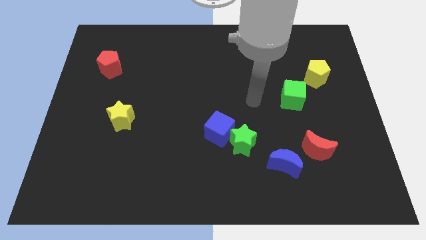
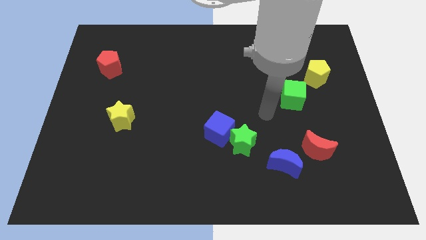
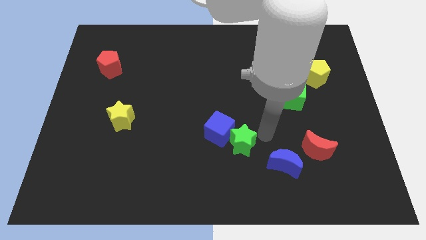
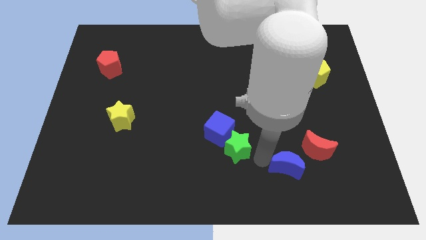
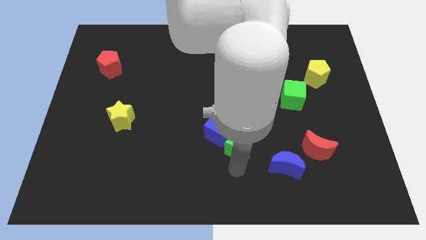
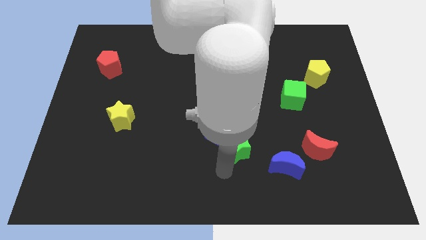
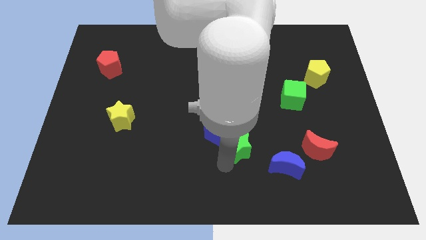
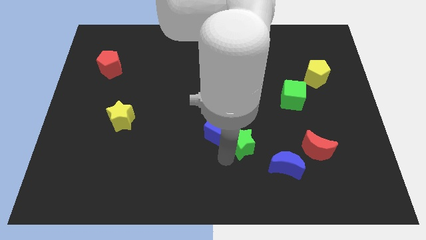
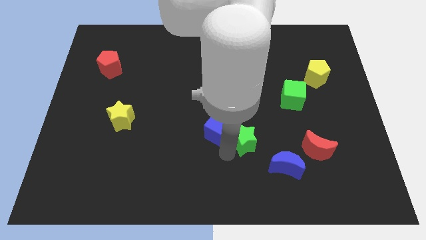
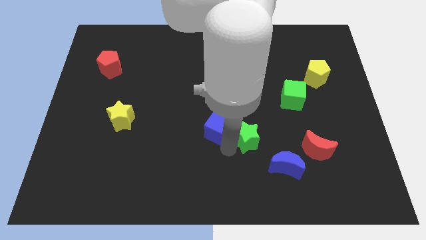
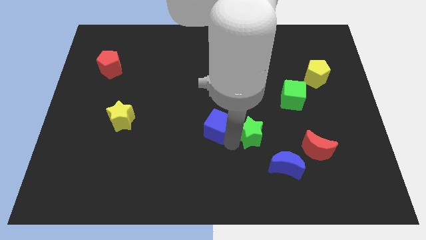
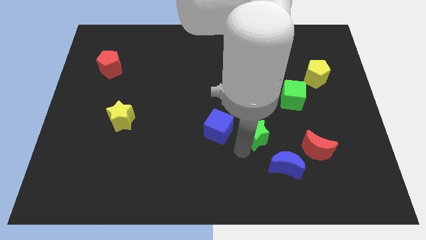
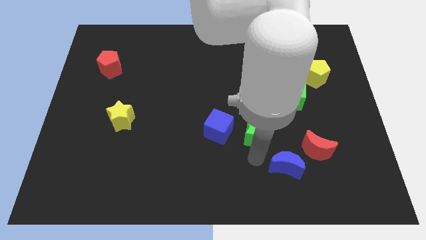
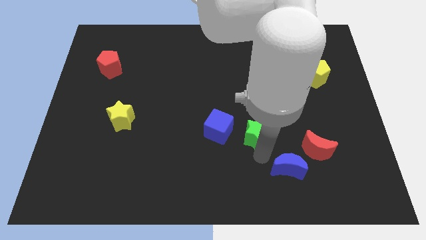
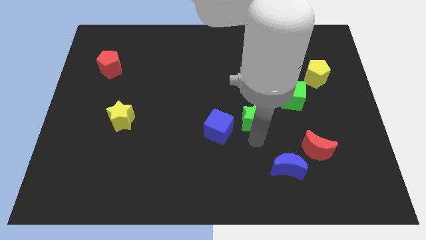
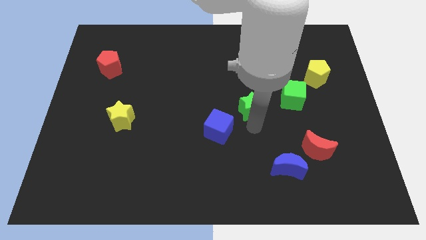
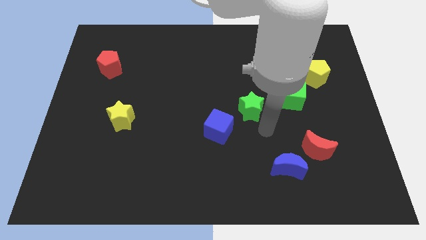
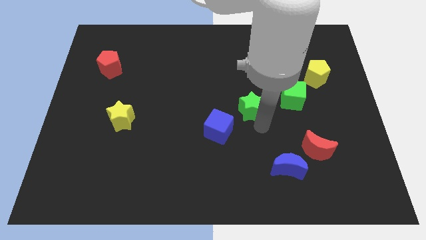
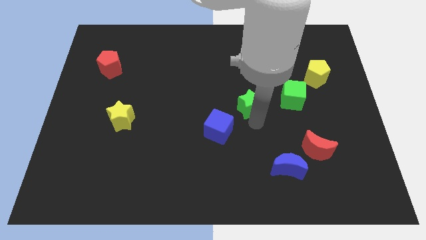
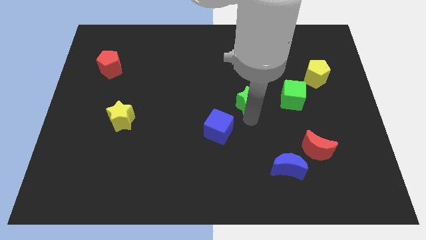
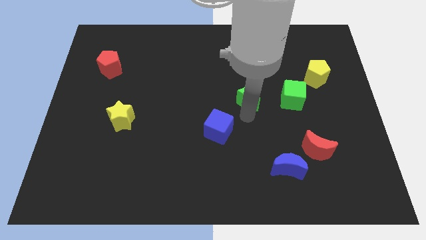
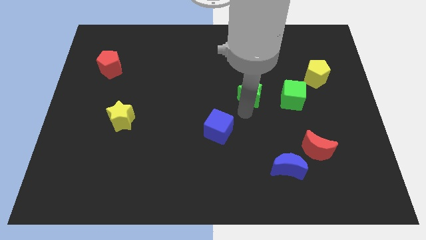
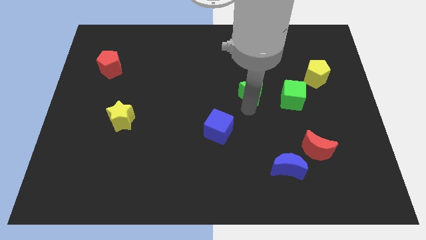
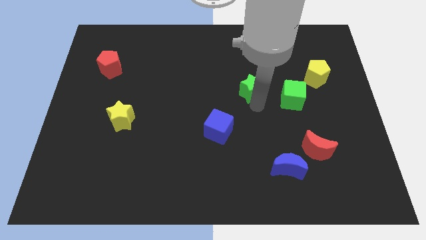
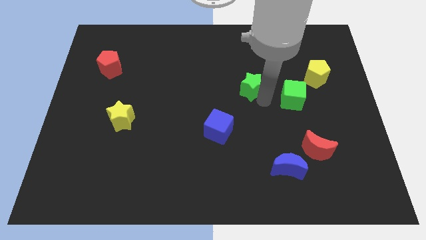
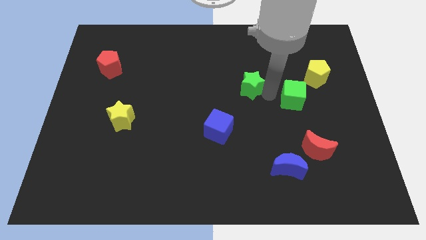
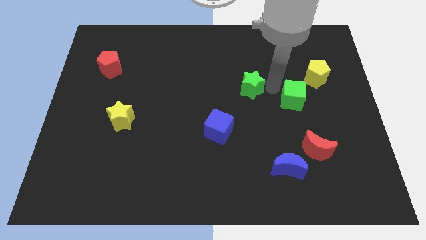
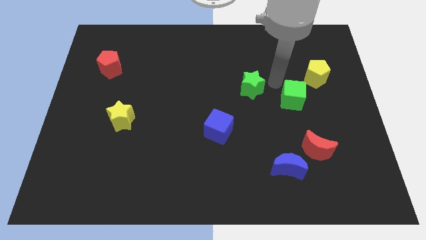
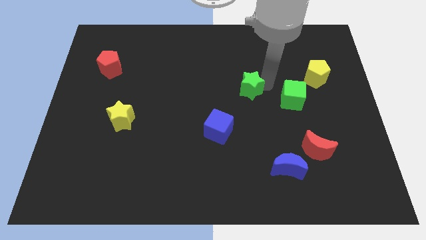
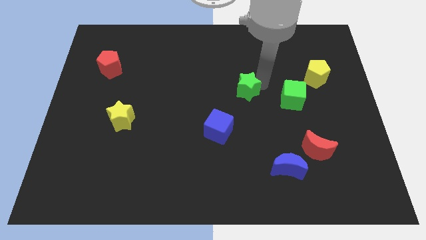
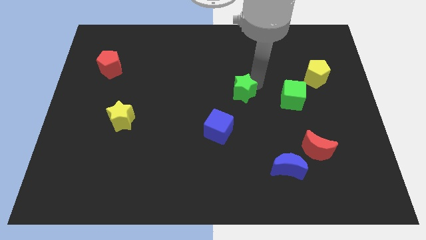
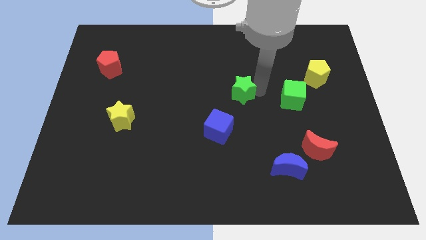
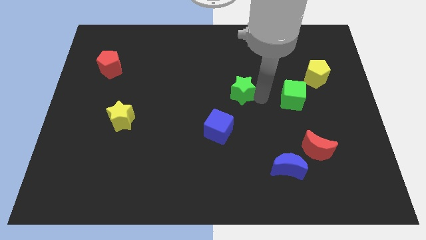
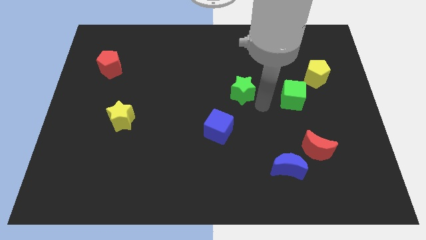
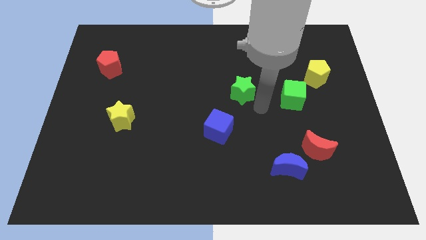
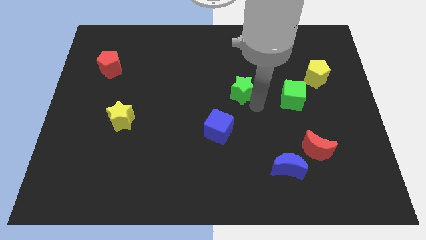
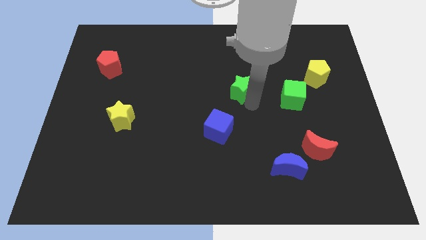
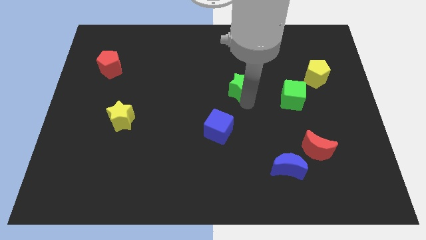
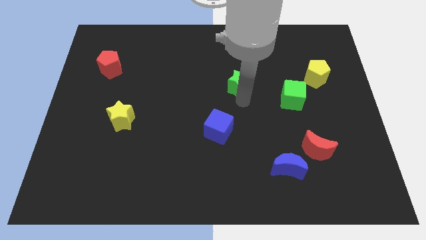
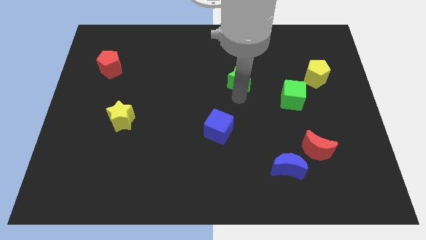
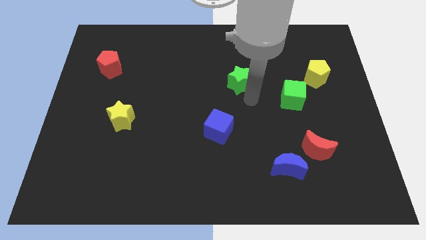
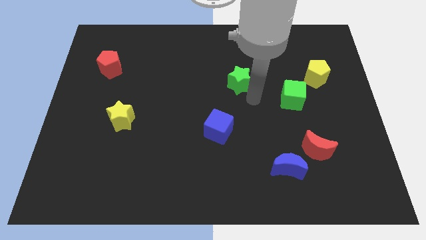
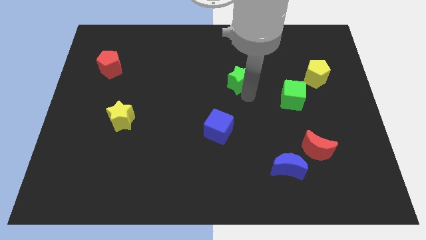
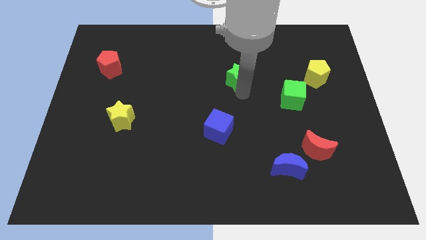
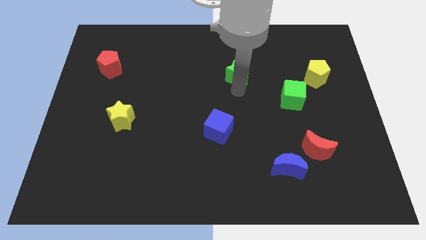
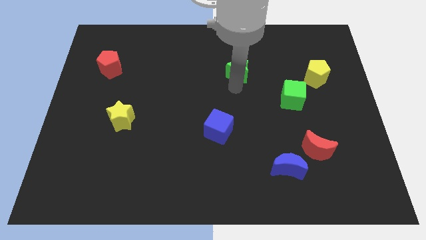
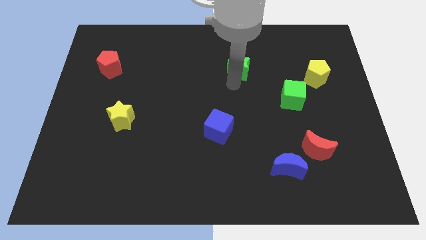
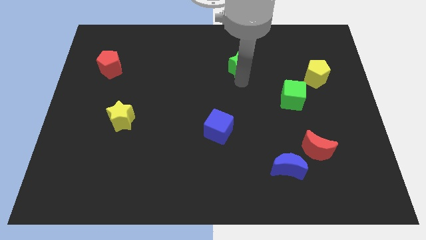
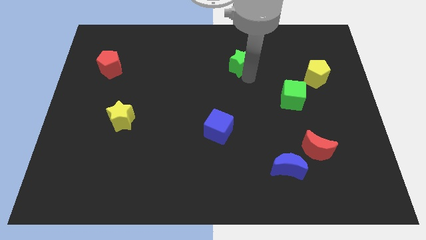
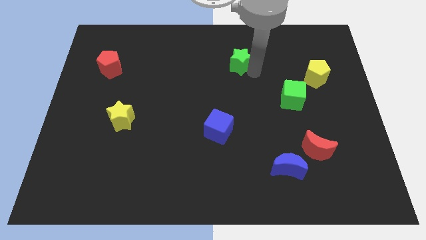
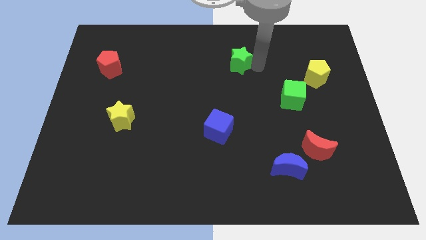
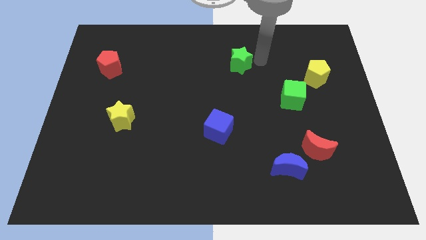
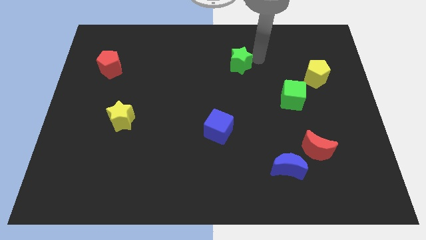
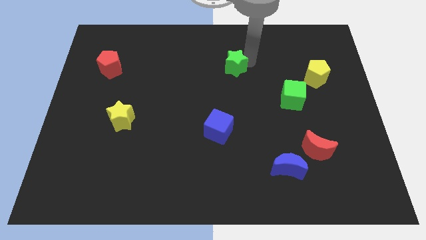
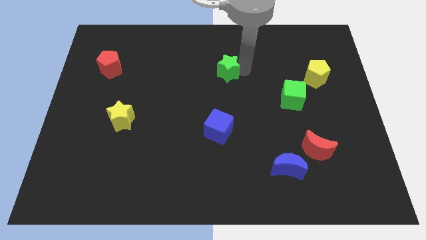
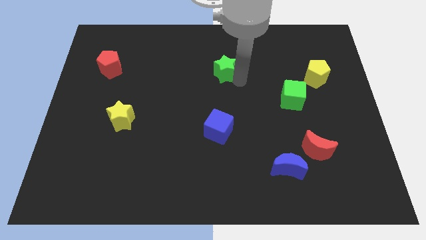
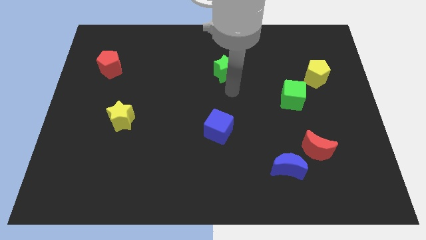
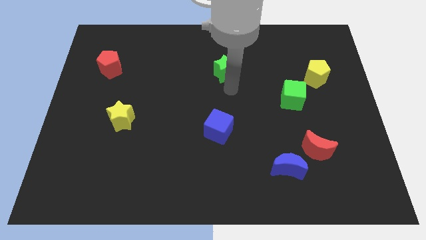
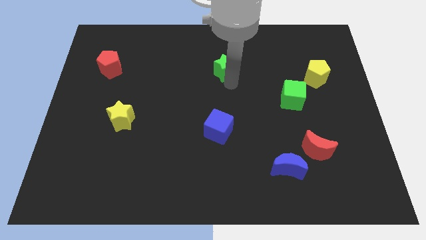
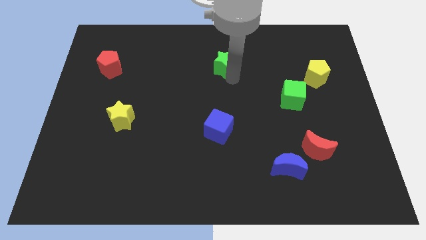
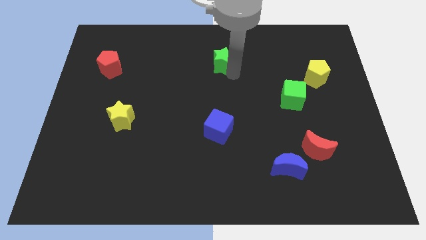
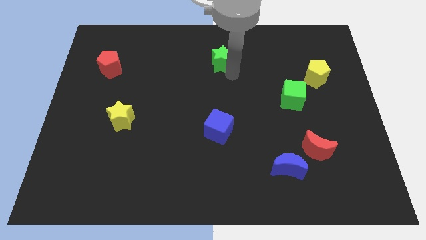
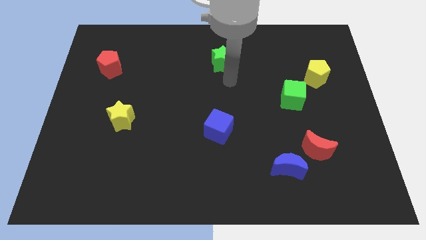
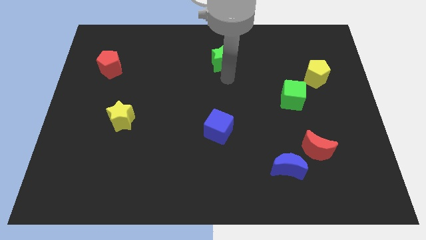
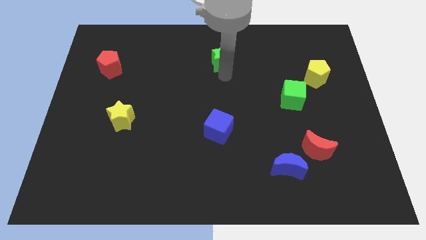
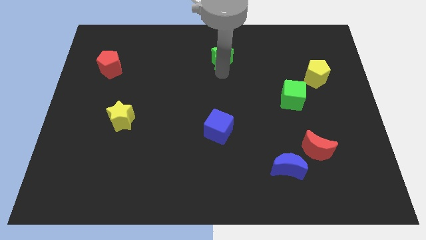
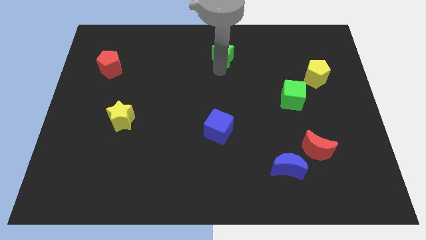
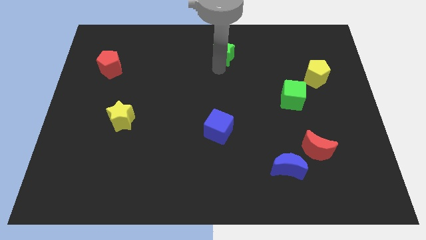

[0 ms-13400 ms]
put the green star to the top side
